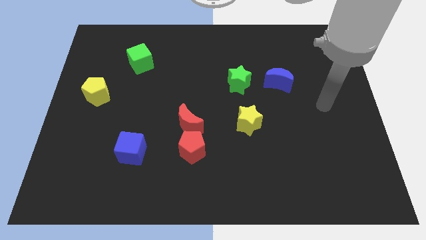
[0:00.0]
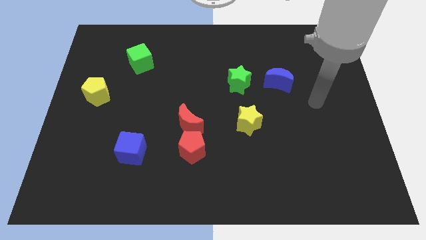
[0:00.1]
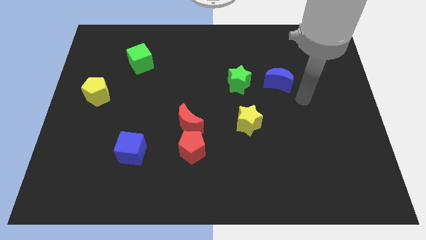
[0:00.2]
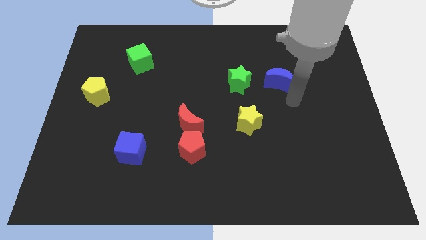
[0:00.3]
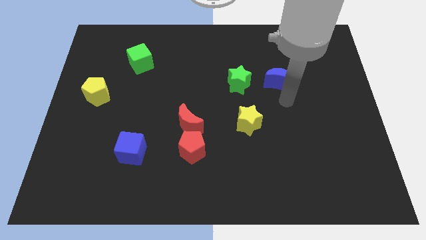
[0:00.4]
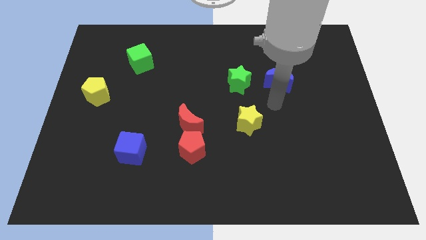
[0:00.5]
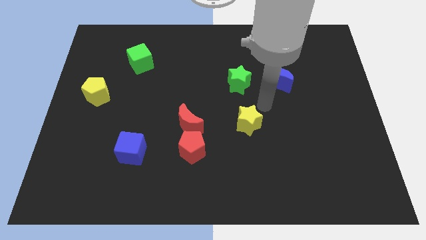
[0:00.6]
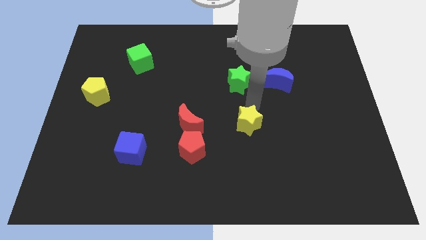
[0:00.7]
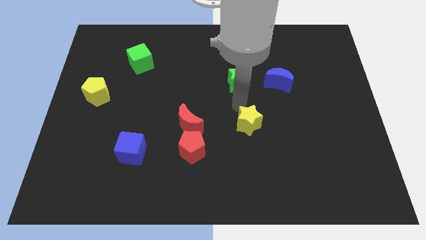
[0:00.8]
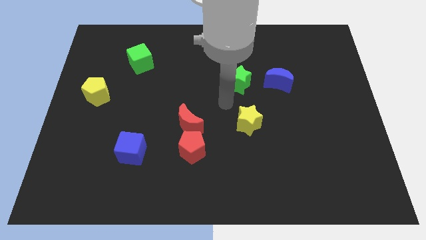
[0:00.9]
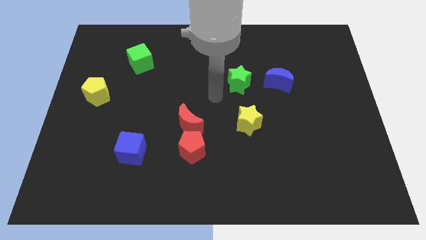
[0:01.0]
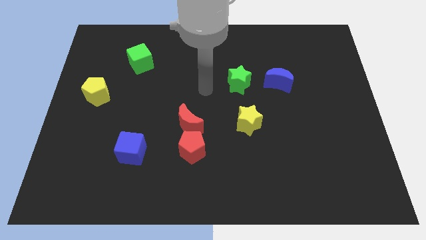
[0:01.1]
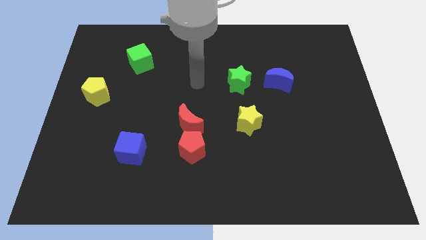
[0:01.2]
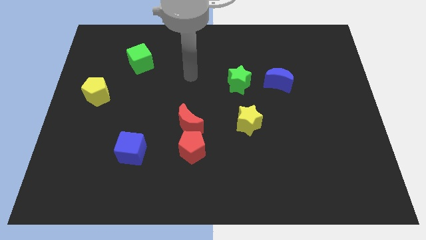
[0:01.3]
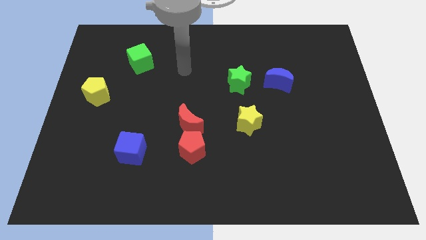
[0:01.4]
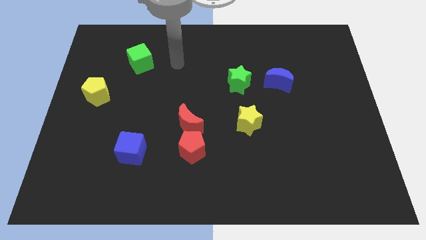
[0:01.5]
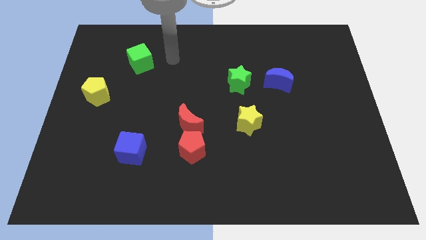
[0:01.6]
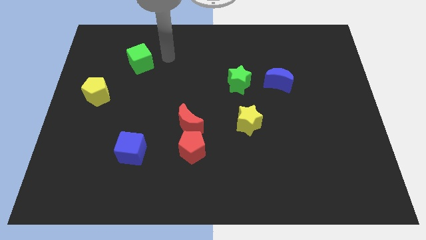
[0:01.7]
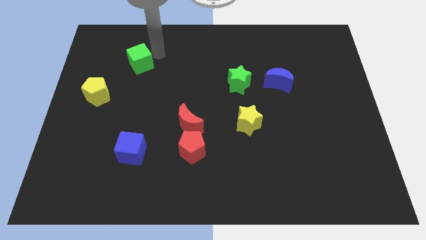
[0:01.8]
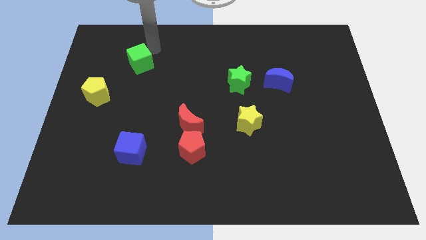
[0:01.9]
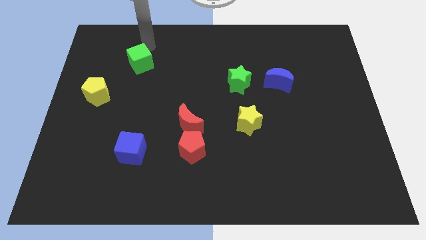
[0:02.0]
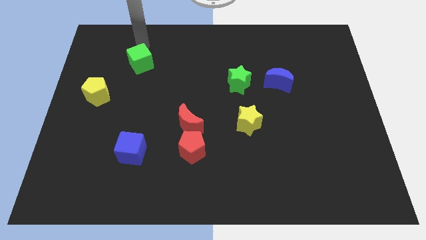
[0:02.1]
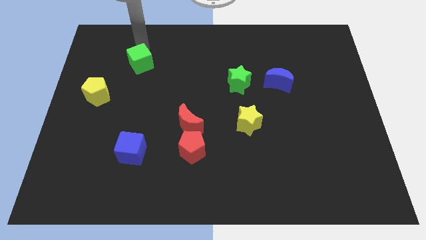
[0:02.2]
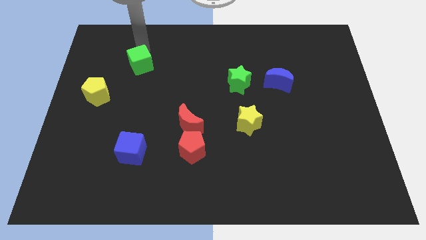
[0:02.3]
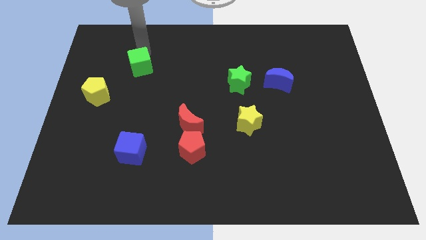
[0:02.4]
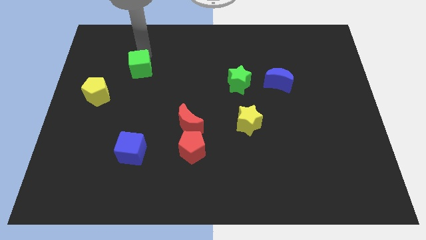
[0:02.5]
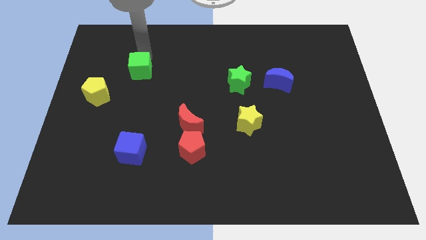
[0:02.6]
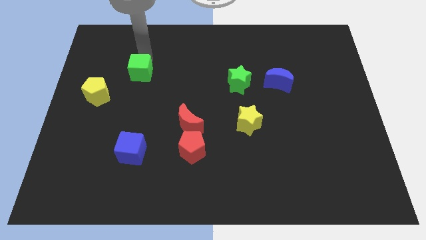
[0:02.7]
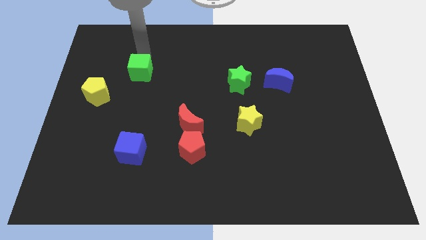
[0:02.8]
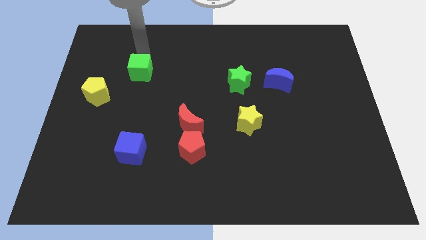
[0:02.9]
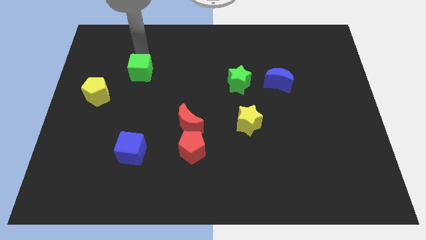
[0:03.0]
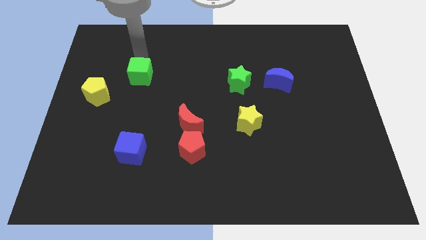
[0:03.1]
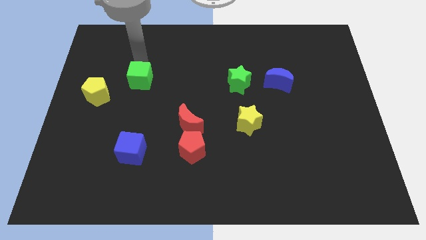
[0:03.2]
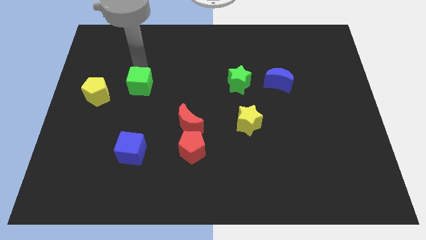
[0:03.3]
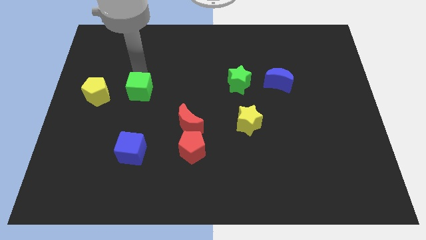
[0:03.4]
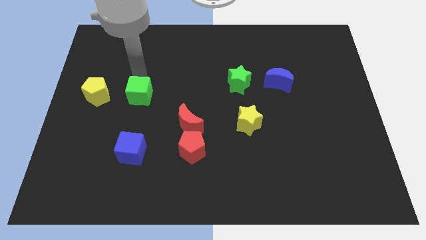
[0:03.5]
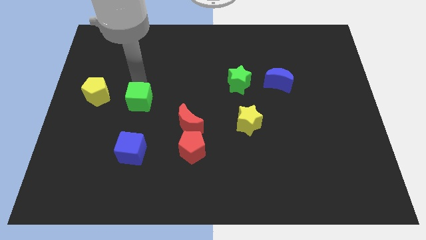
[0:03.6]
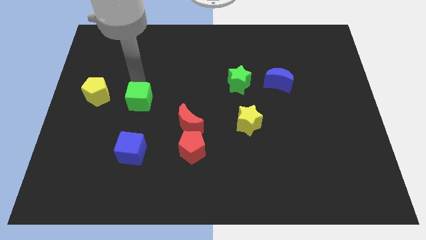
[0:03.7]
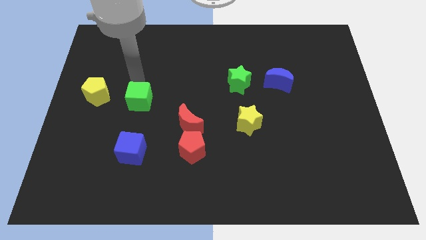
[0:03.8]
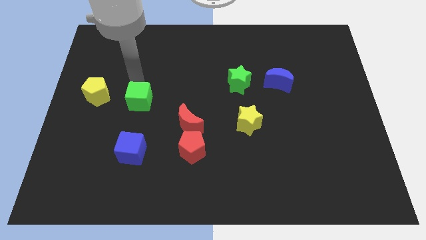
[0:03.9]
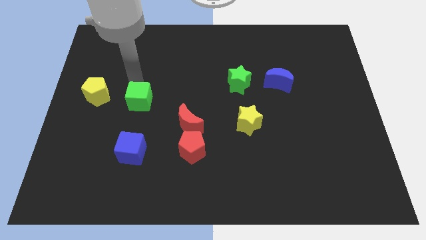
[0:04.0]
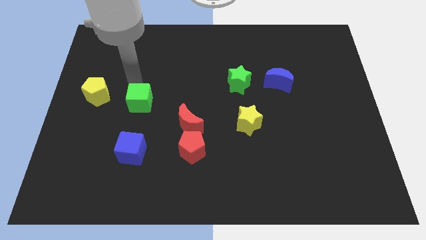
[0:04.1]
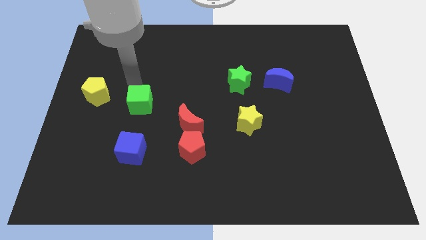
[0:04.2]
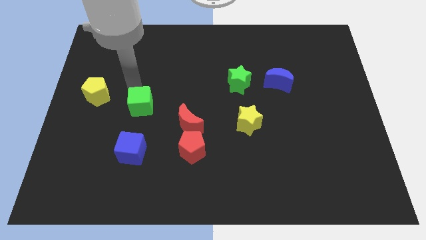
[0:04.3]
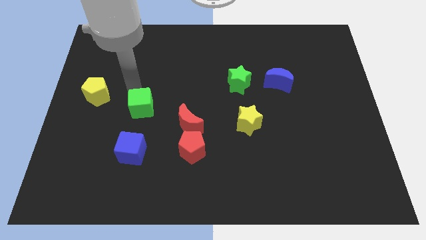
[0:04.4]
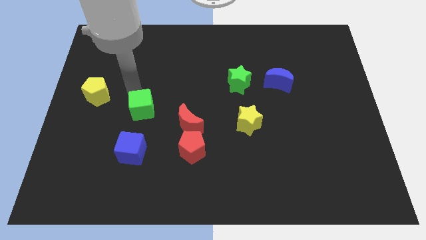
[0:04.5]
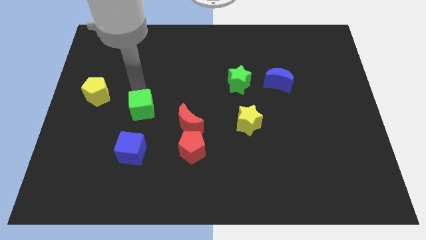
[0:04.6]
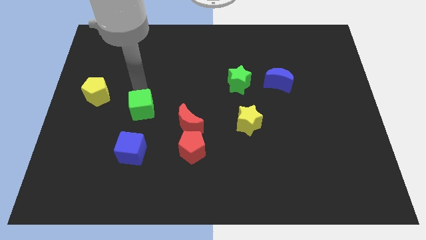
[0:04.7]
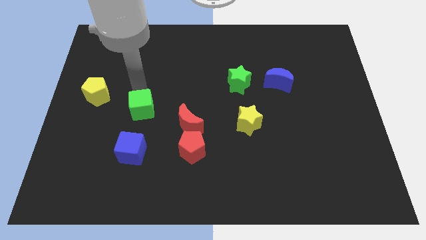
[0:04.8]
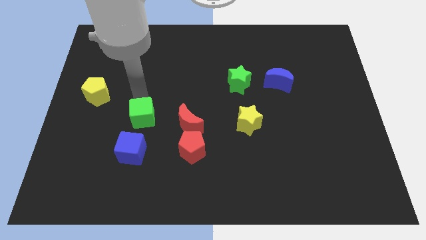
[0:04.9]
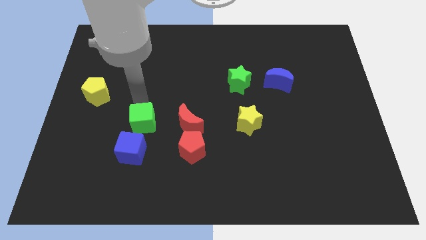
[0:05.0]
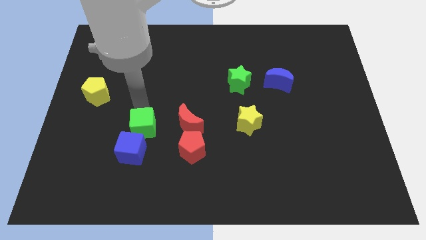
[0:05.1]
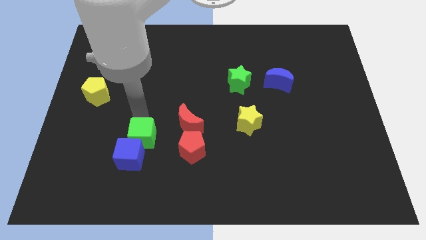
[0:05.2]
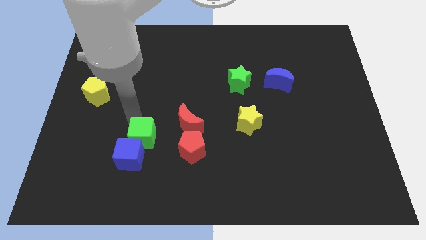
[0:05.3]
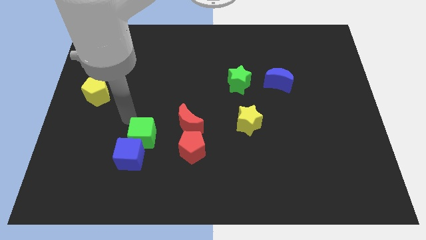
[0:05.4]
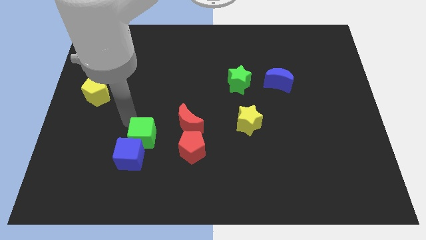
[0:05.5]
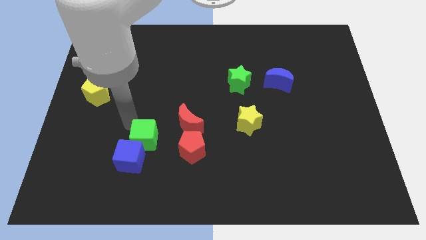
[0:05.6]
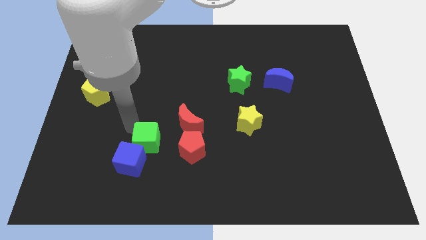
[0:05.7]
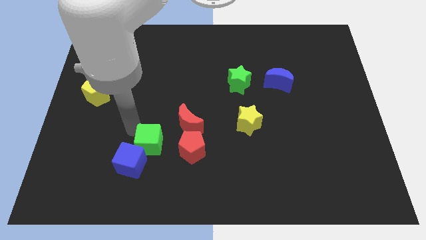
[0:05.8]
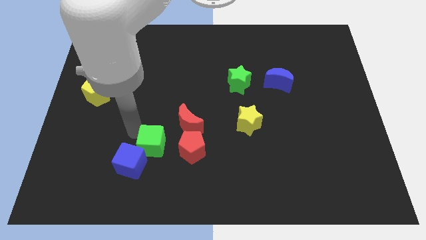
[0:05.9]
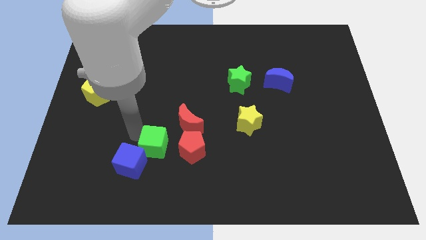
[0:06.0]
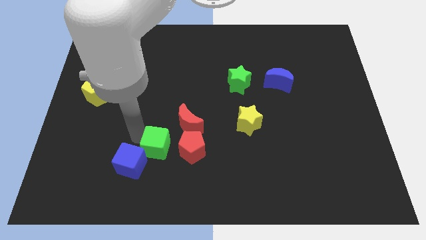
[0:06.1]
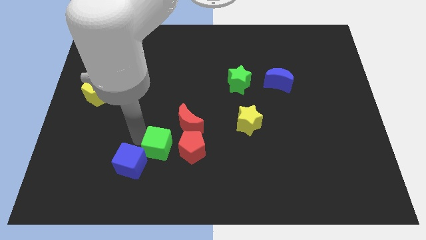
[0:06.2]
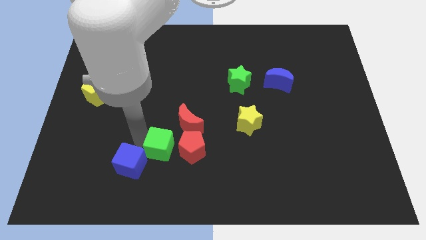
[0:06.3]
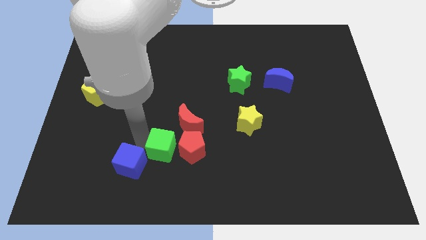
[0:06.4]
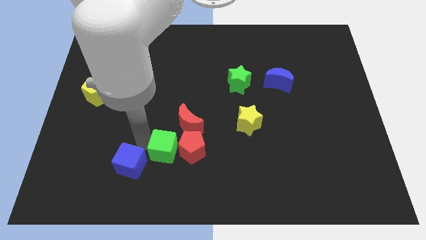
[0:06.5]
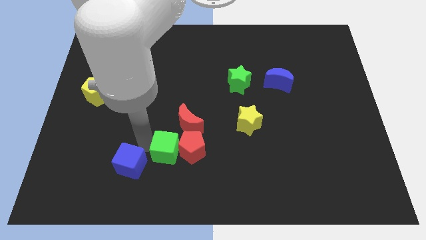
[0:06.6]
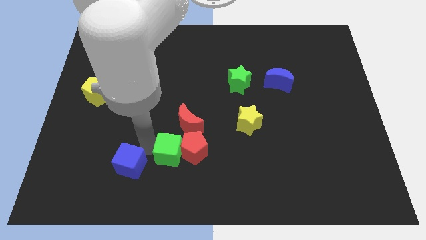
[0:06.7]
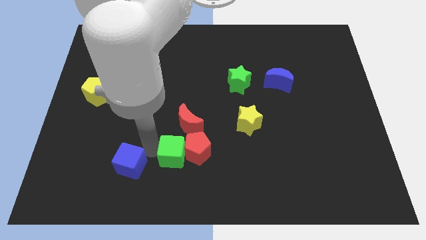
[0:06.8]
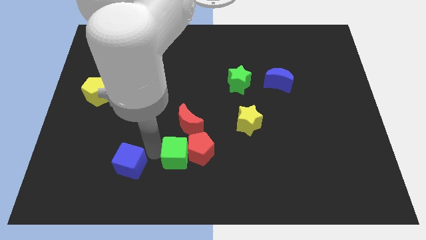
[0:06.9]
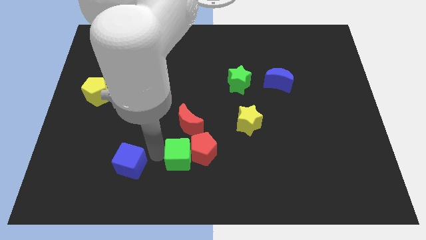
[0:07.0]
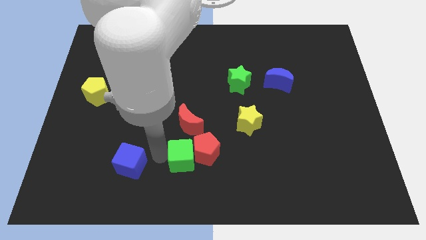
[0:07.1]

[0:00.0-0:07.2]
slide the green cube to the bottom
